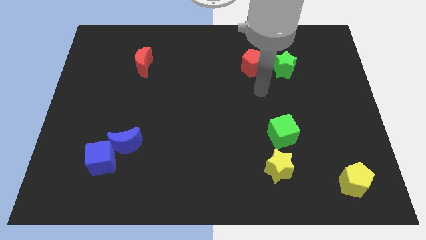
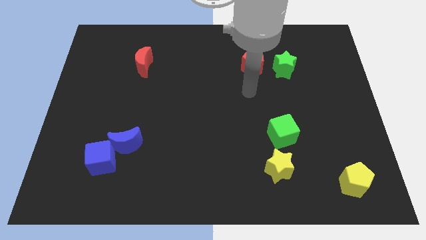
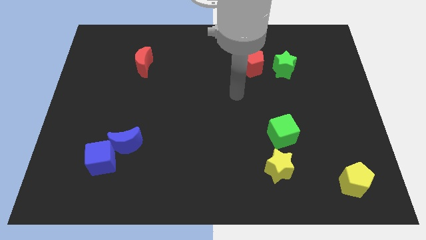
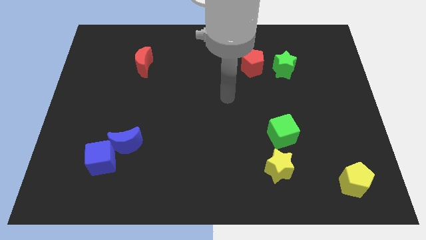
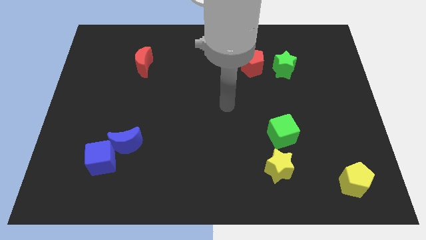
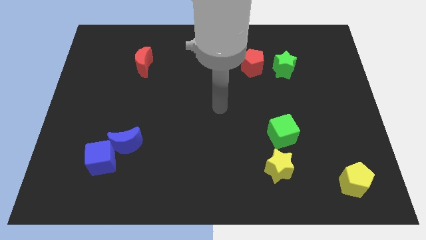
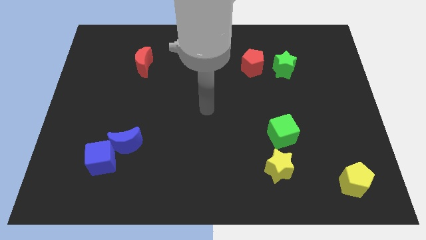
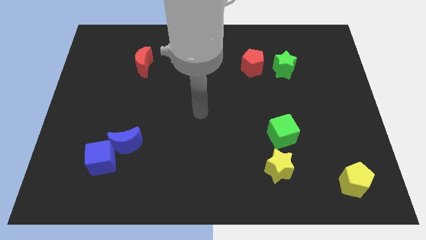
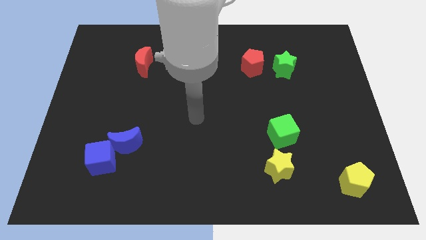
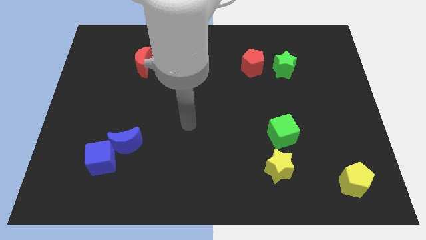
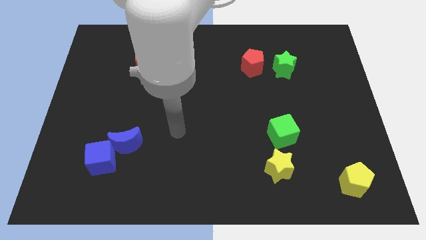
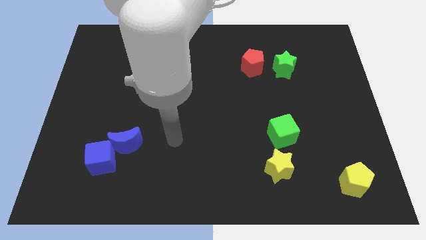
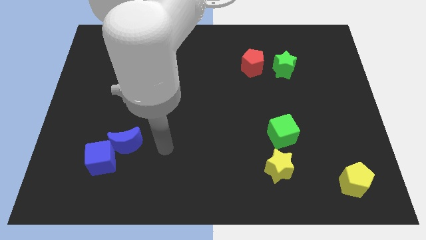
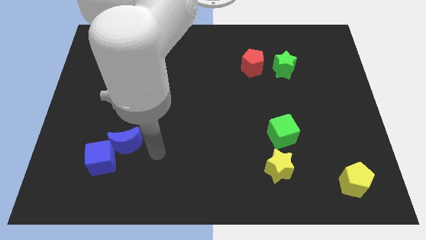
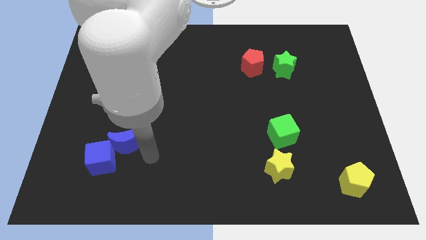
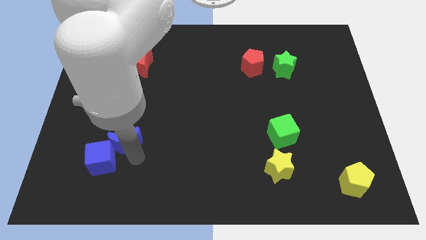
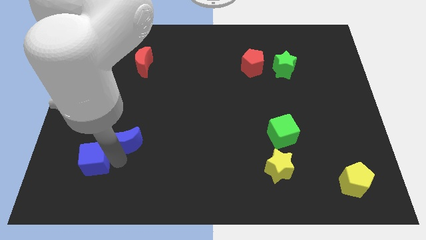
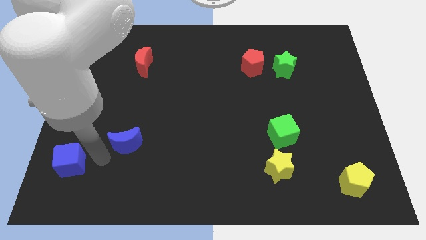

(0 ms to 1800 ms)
separate the blue moon from the blue cube

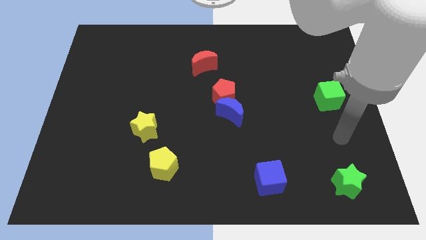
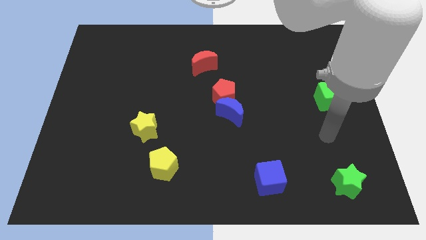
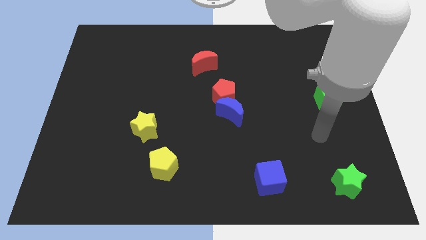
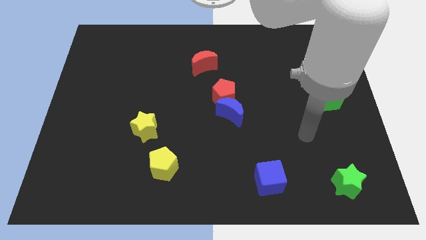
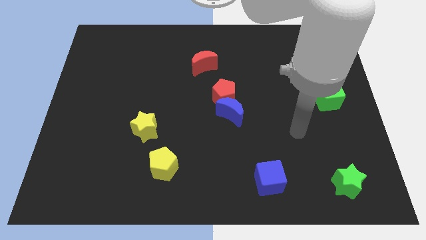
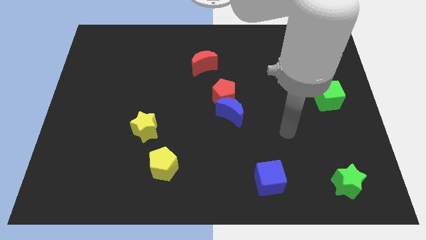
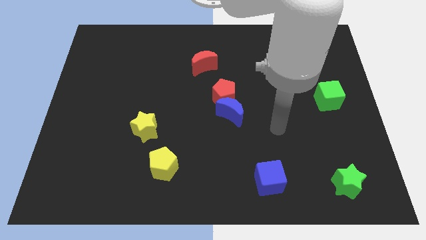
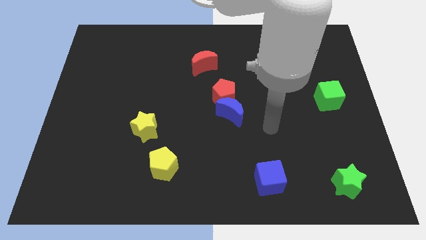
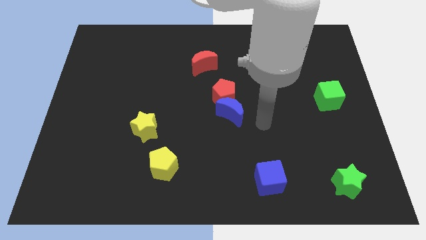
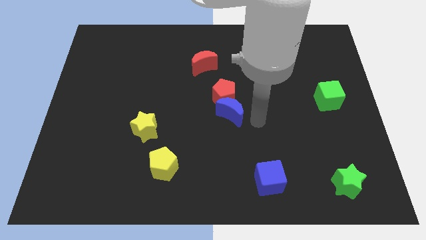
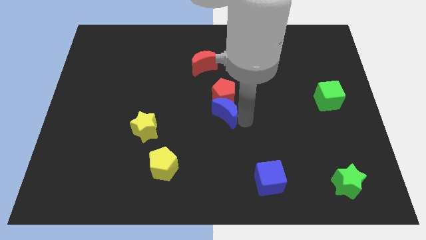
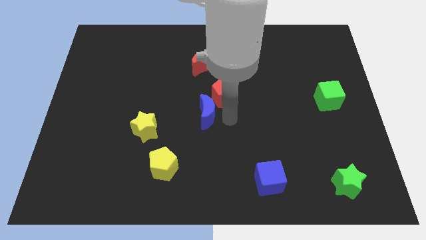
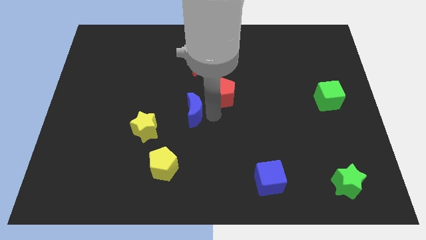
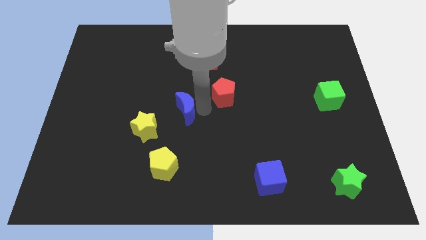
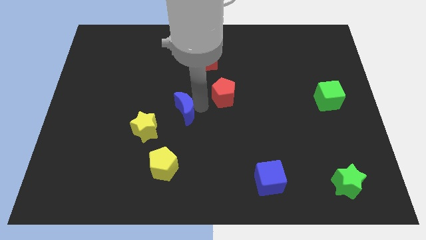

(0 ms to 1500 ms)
move the red pentagon away from the blue moon

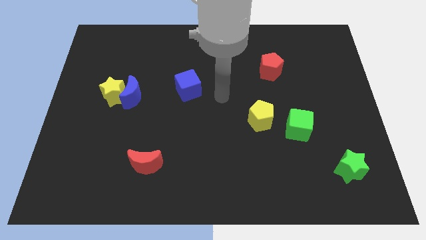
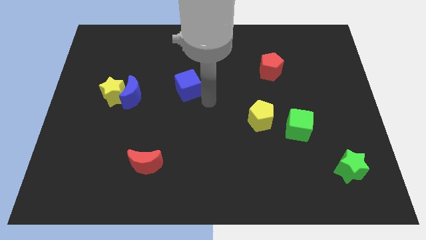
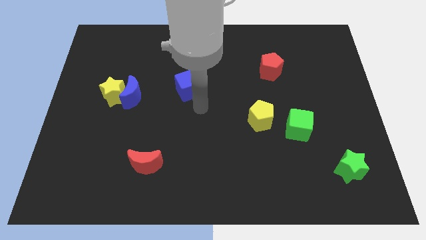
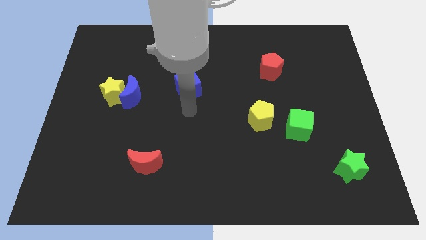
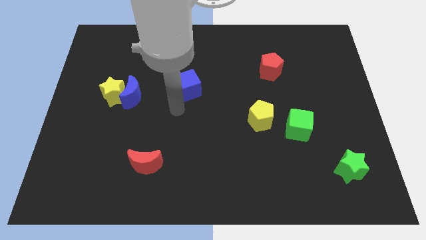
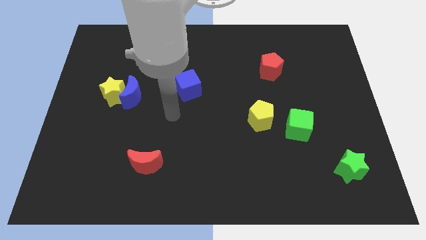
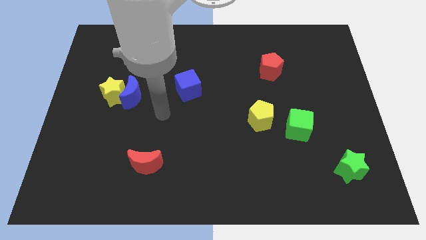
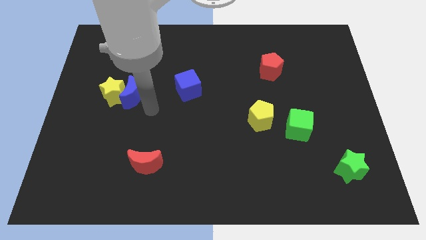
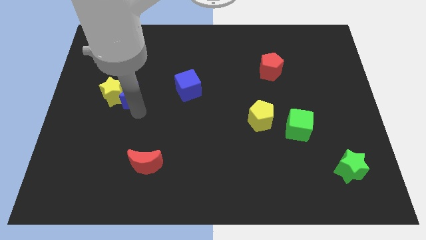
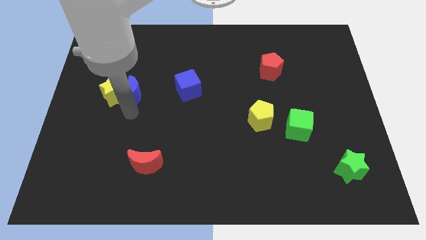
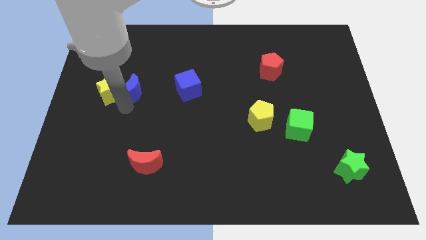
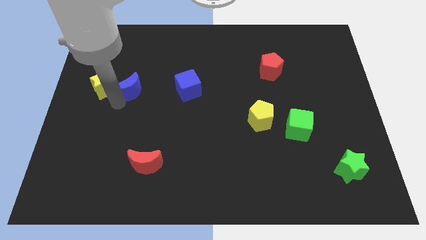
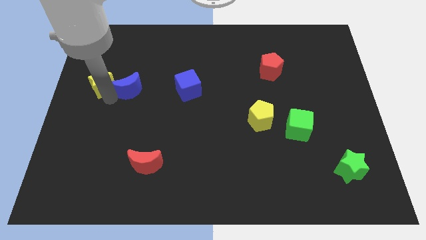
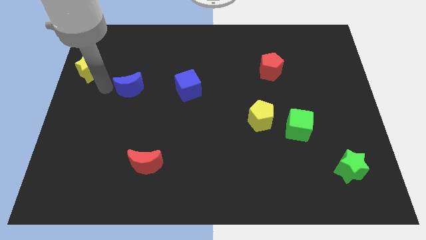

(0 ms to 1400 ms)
move the blue moon away from the yellow star

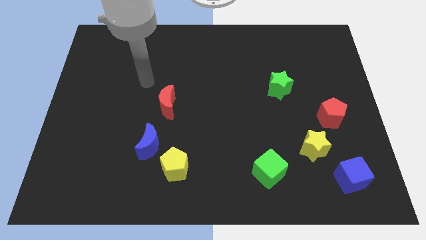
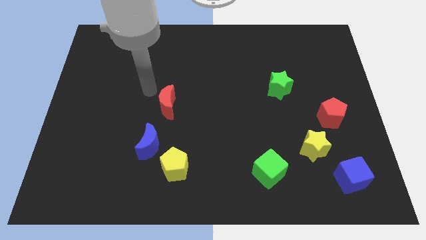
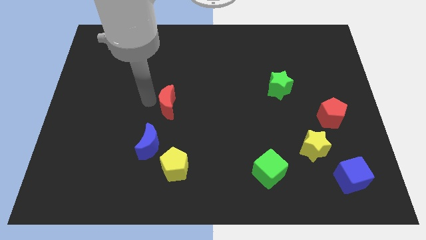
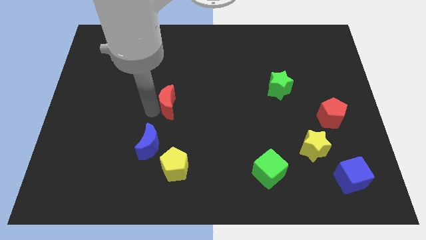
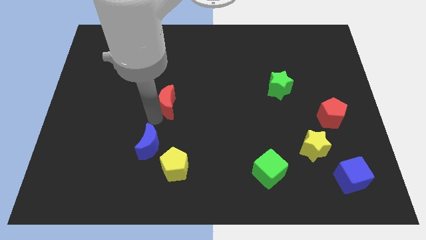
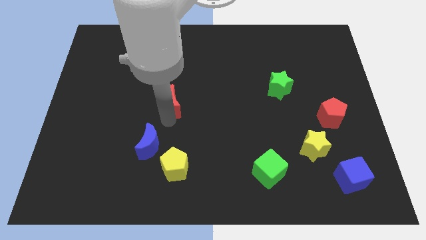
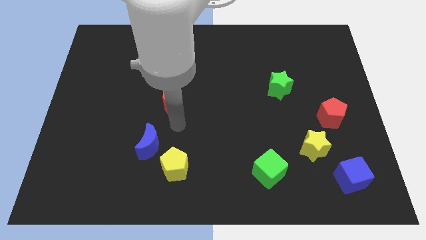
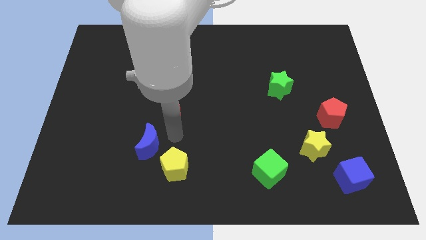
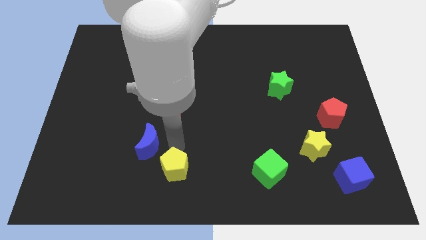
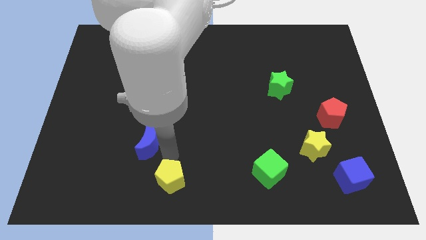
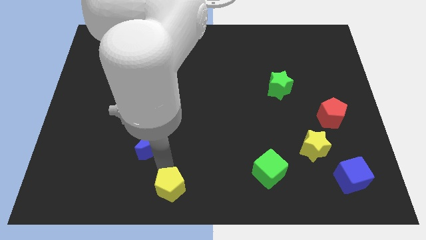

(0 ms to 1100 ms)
move the blue moon away from the yellow pentagon

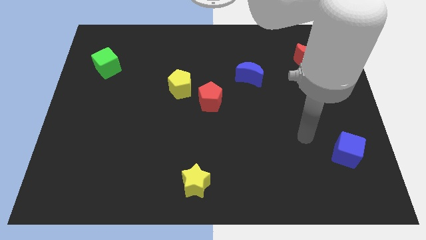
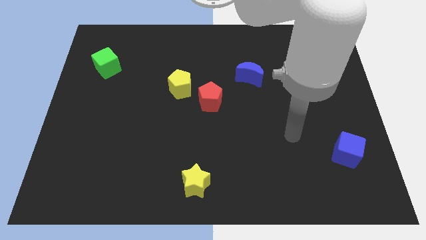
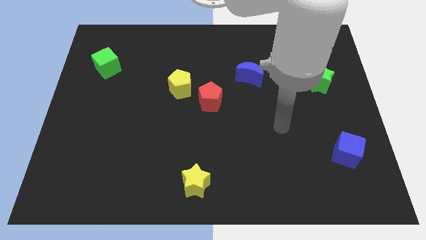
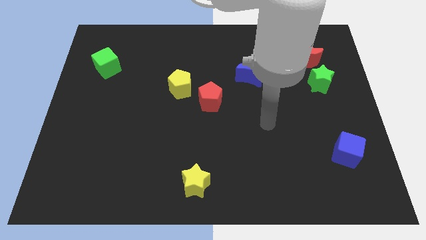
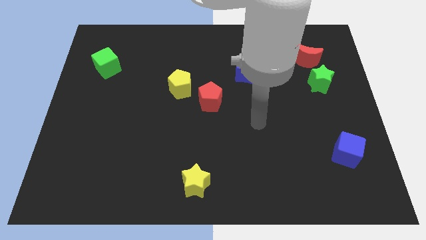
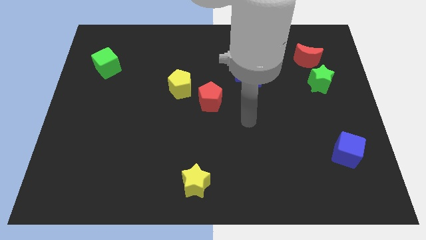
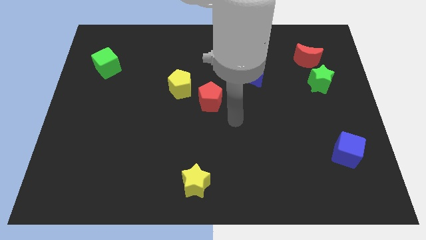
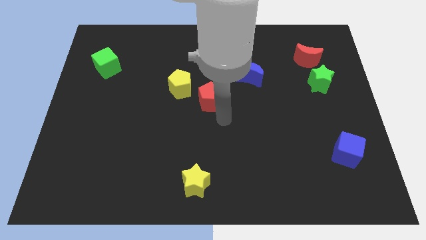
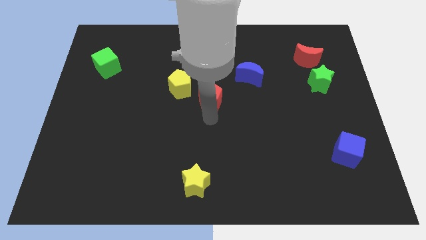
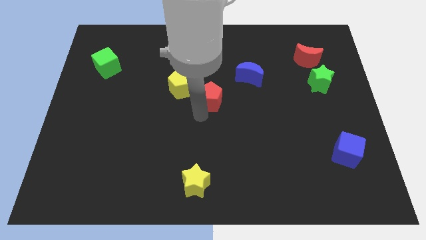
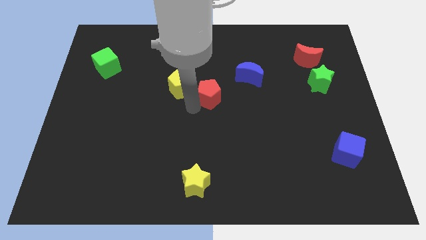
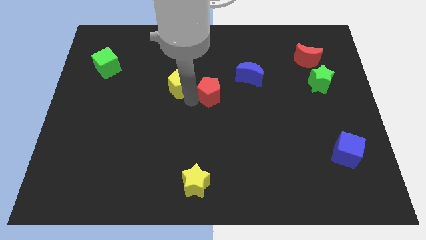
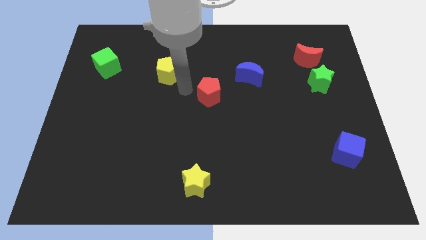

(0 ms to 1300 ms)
separate the red pentagon from the yellow pentagon

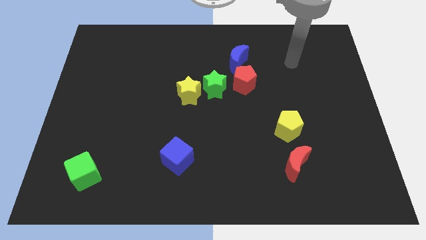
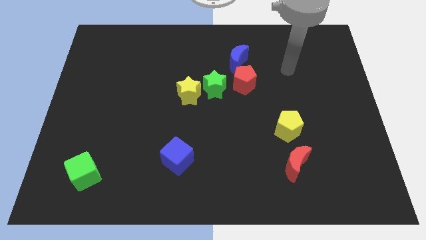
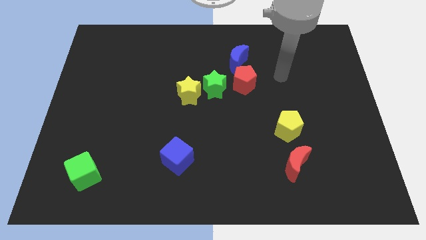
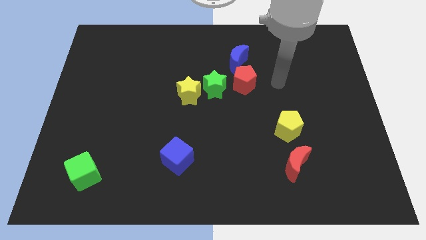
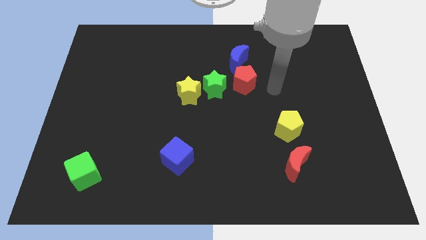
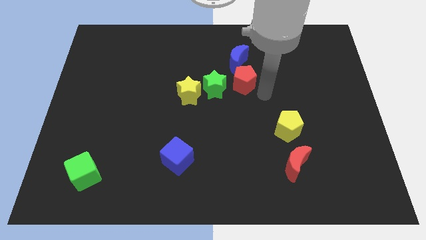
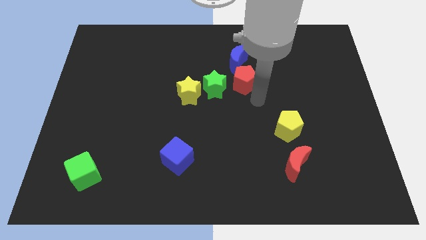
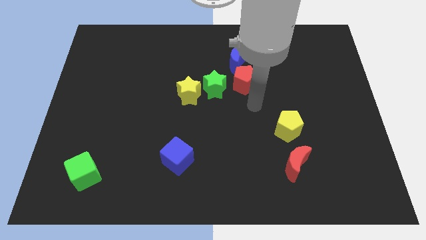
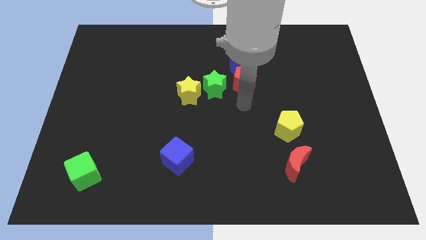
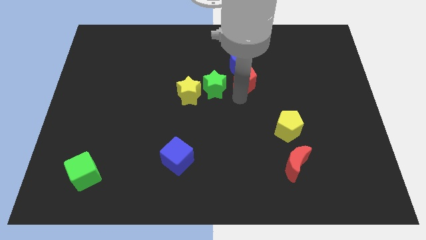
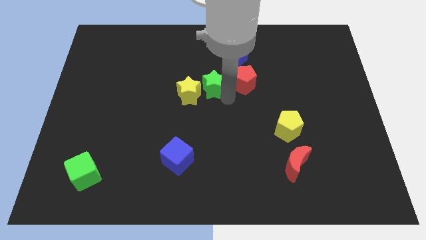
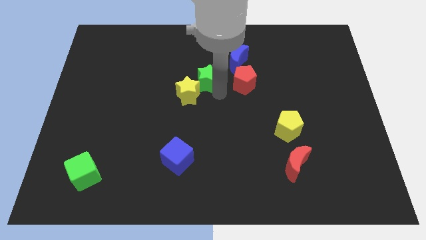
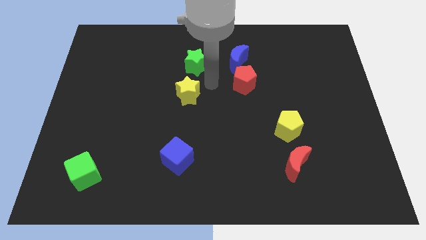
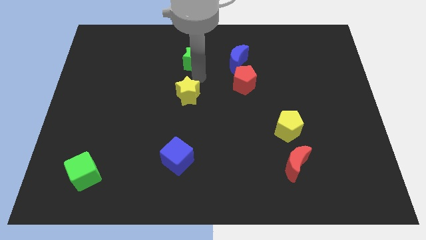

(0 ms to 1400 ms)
pull the yellow star apart from the green star

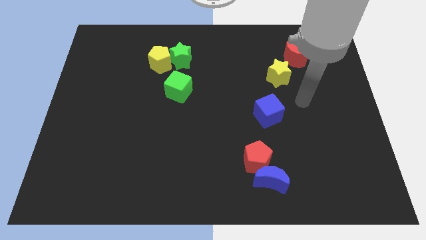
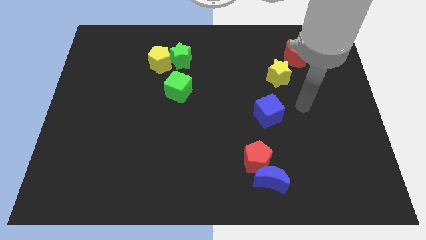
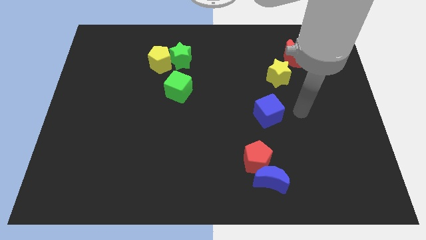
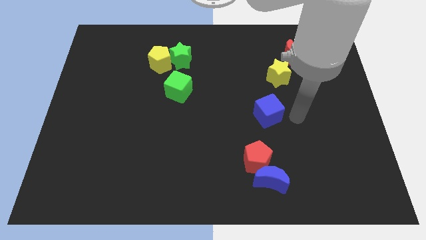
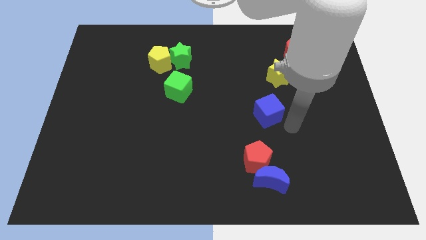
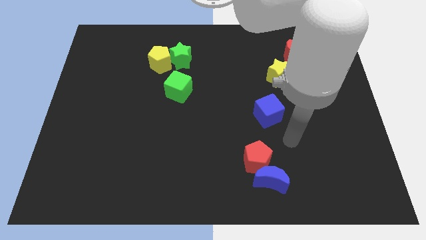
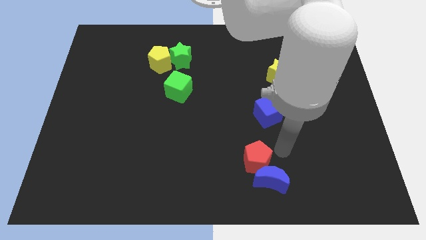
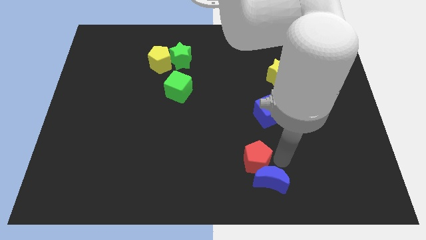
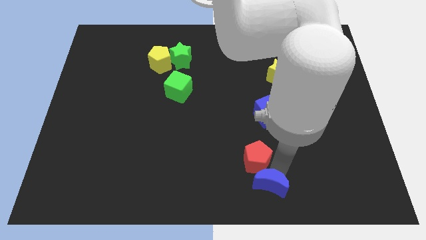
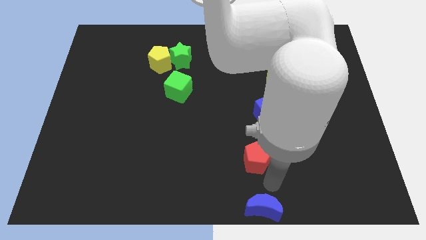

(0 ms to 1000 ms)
separate the red pentagon from the blue moon
